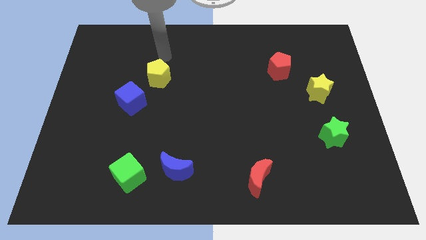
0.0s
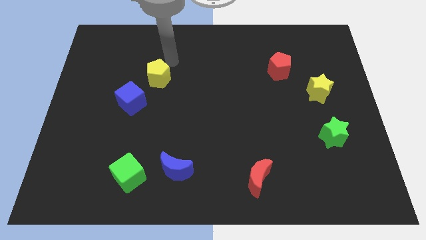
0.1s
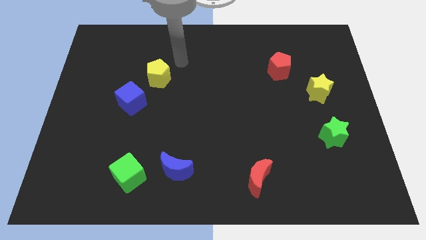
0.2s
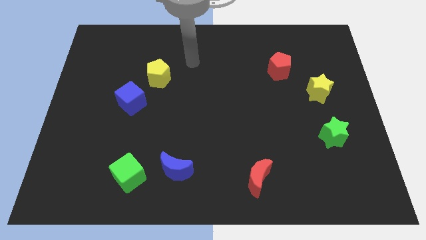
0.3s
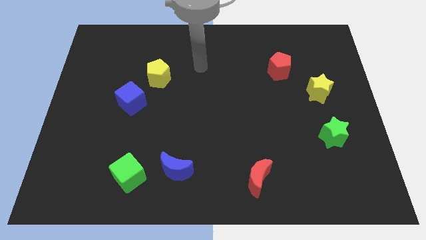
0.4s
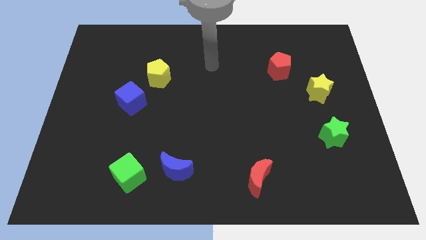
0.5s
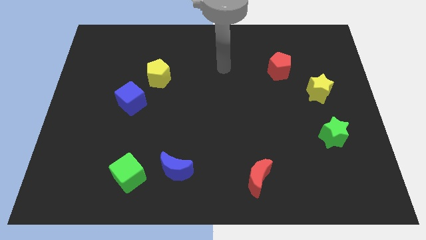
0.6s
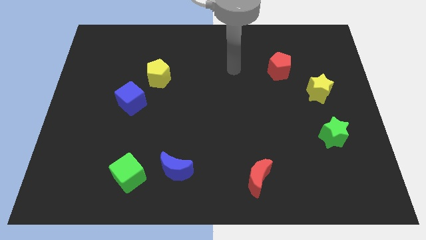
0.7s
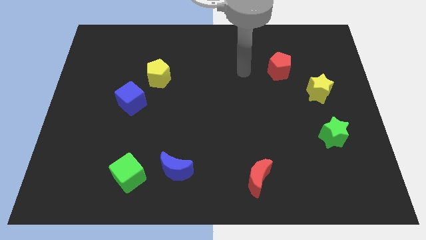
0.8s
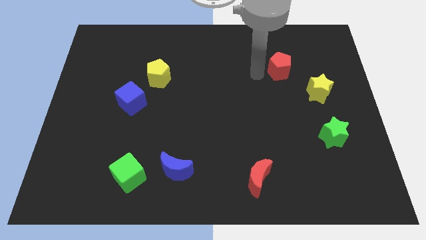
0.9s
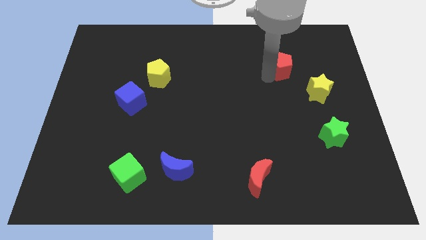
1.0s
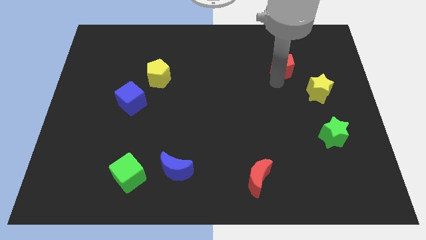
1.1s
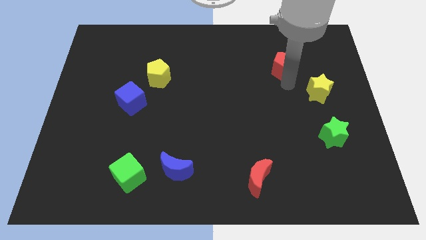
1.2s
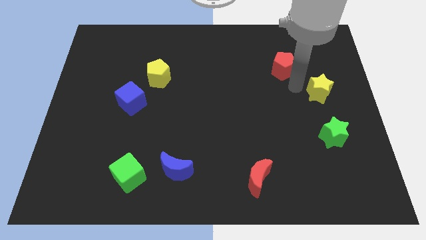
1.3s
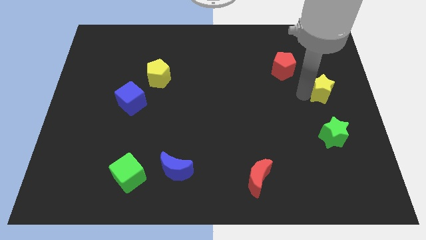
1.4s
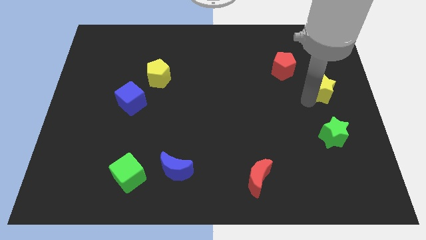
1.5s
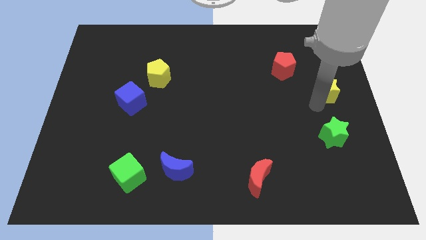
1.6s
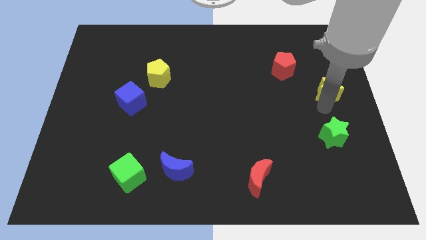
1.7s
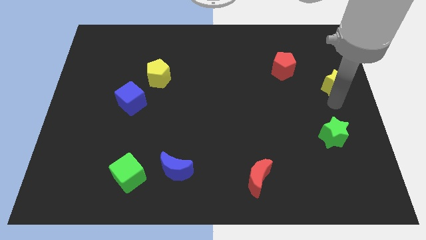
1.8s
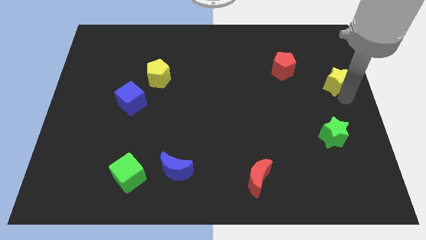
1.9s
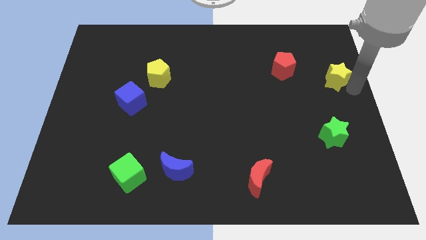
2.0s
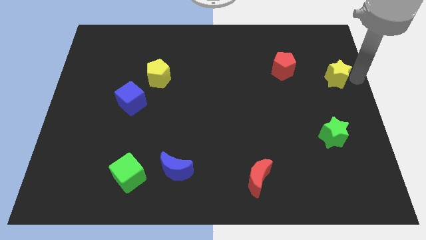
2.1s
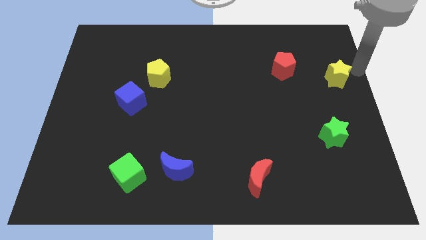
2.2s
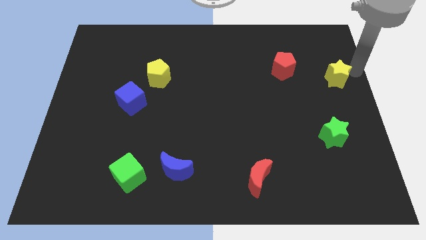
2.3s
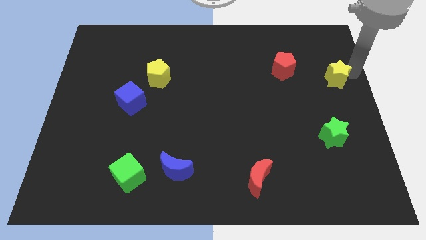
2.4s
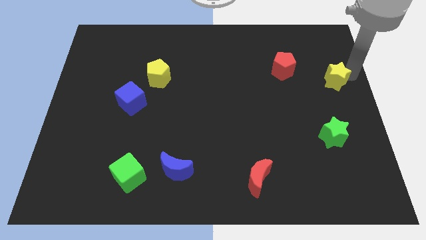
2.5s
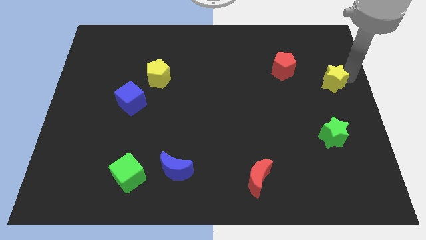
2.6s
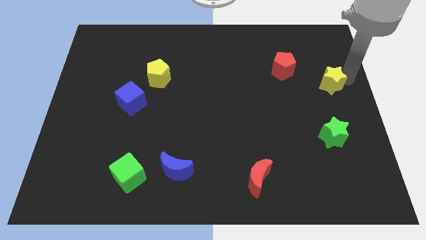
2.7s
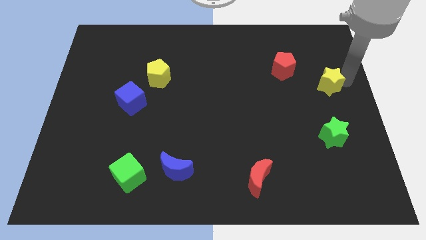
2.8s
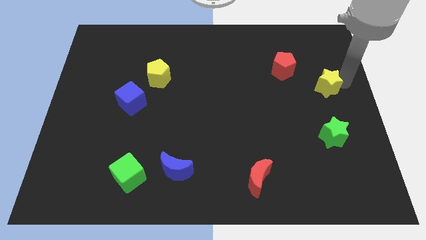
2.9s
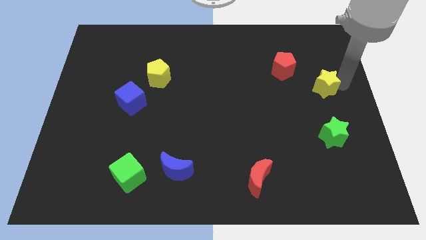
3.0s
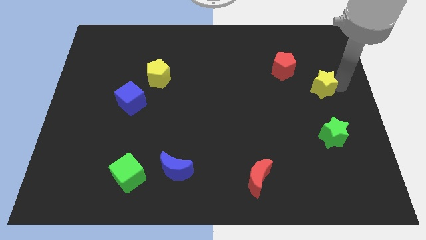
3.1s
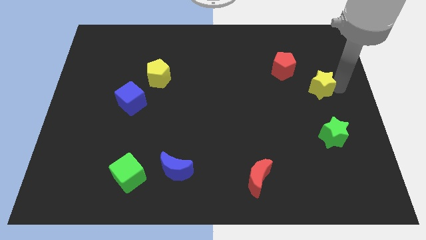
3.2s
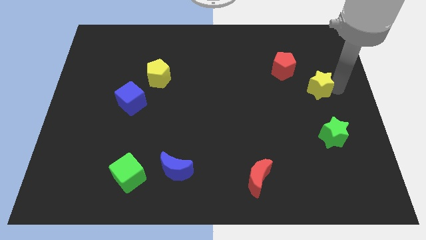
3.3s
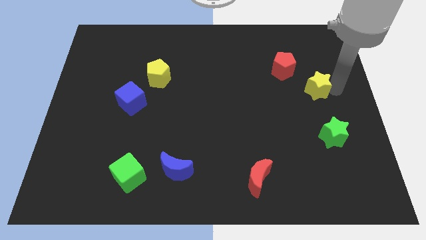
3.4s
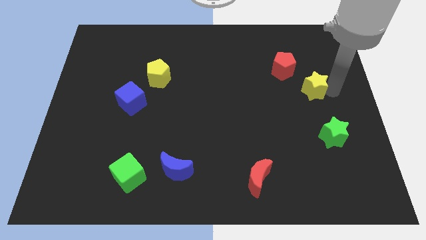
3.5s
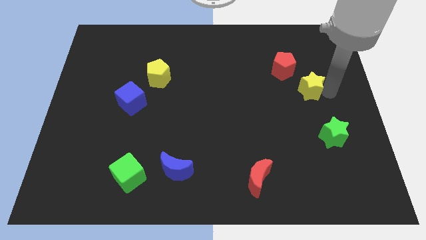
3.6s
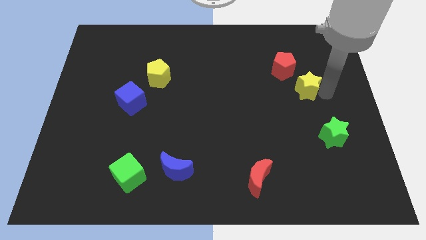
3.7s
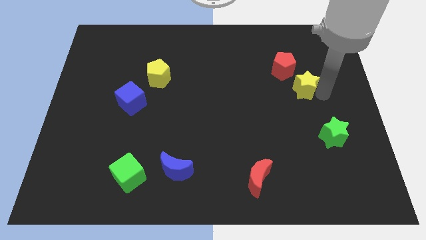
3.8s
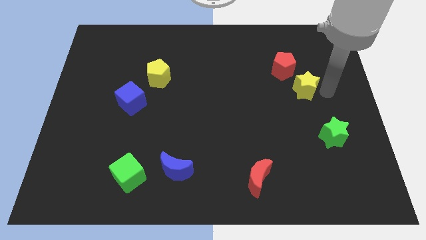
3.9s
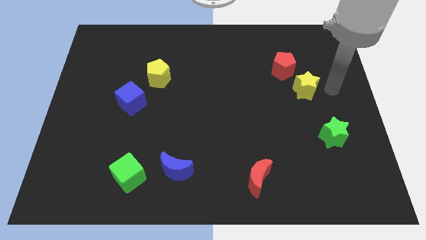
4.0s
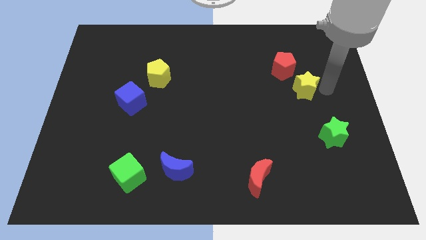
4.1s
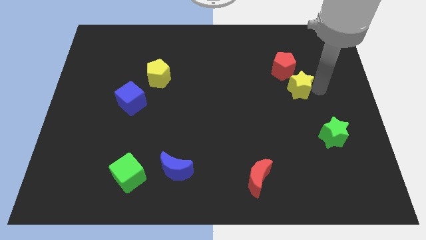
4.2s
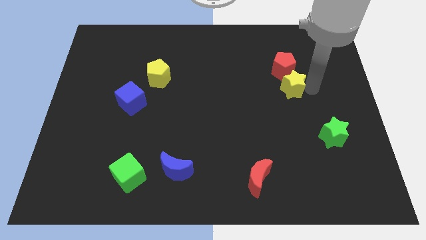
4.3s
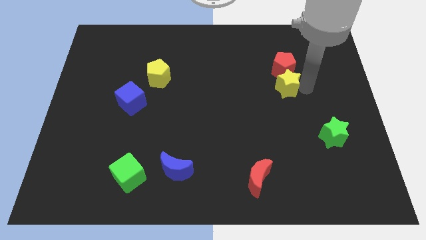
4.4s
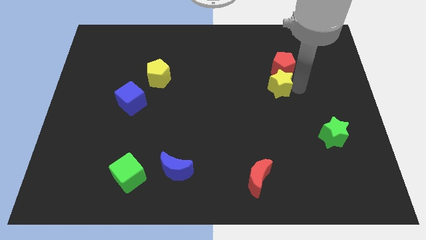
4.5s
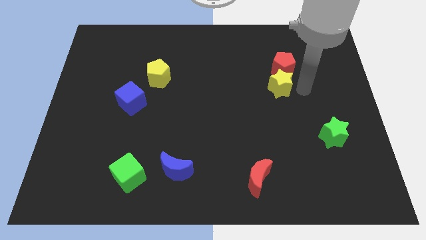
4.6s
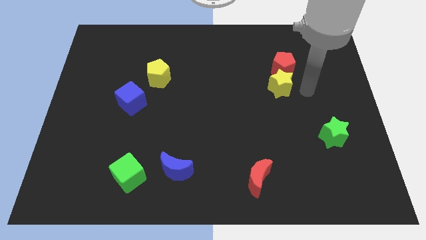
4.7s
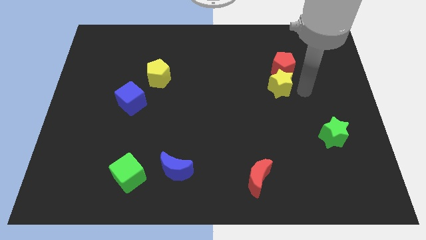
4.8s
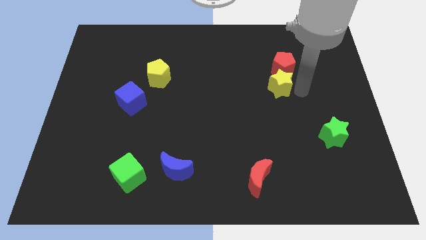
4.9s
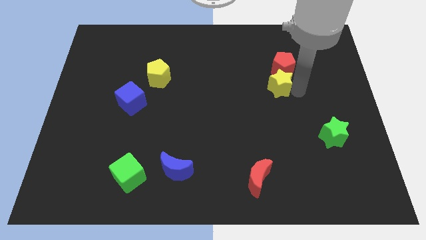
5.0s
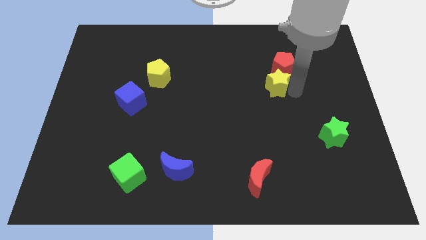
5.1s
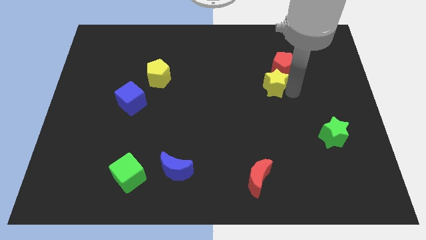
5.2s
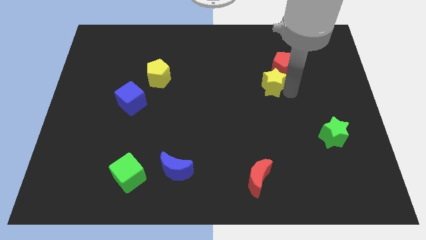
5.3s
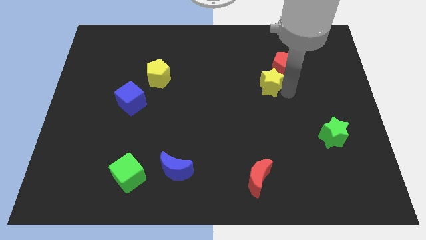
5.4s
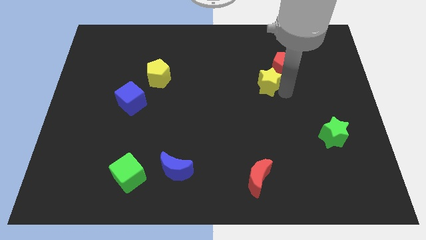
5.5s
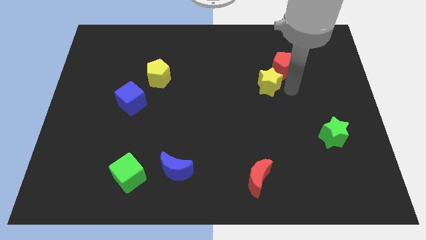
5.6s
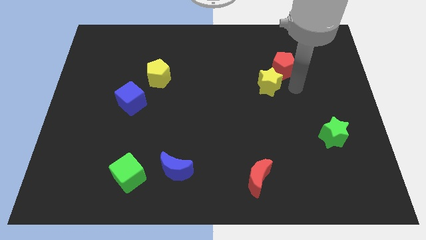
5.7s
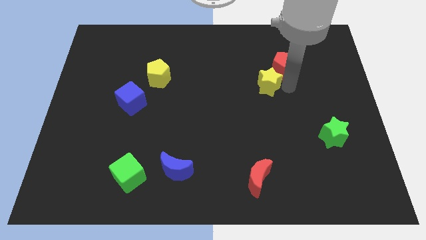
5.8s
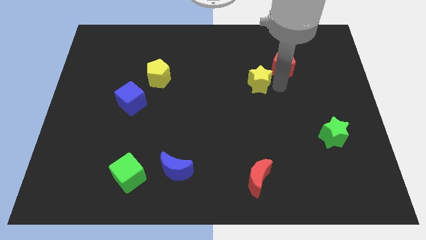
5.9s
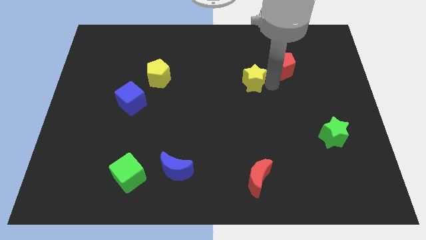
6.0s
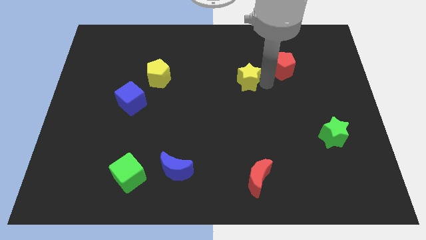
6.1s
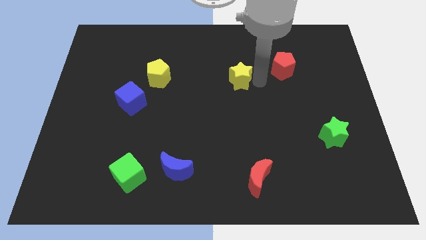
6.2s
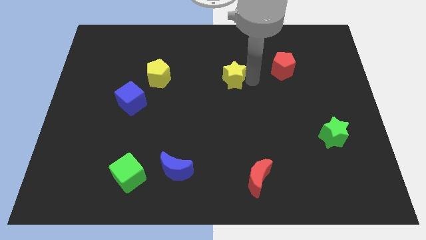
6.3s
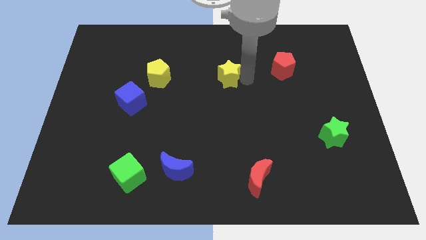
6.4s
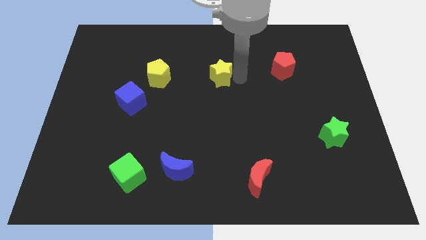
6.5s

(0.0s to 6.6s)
move the yellow star to the right of the yellow pentagon

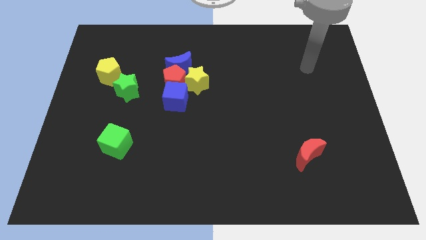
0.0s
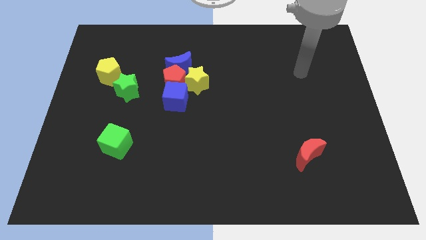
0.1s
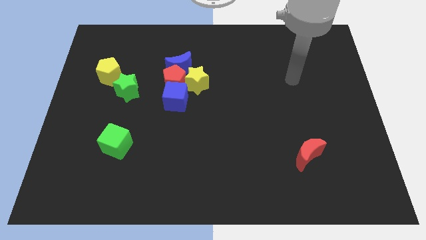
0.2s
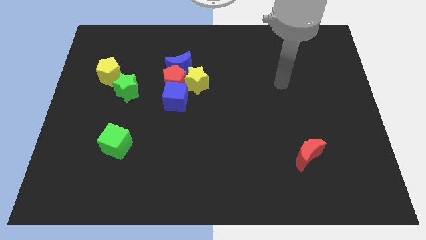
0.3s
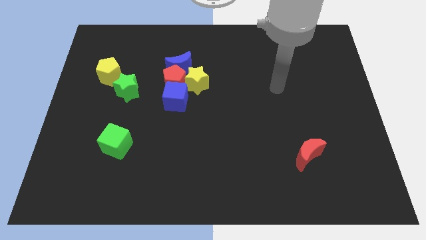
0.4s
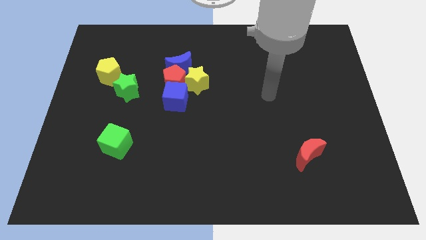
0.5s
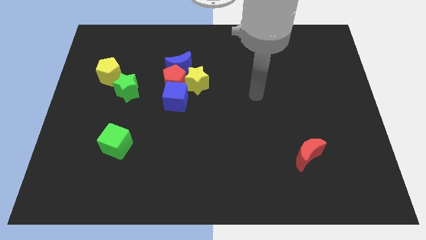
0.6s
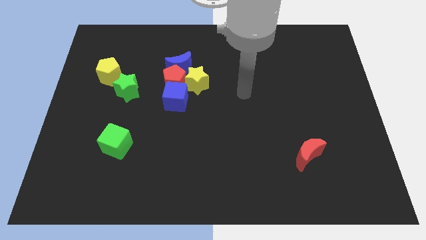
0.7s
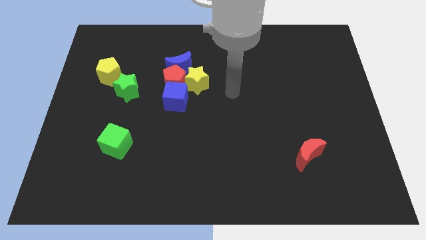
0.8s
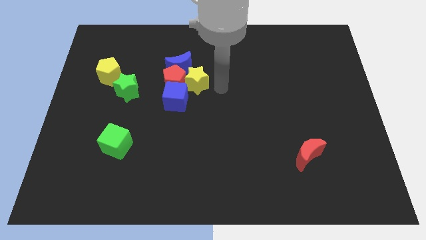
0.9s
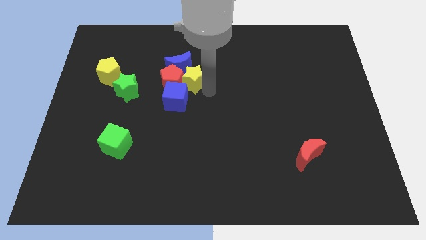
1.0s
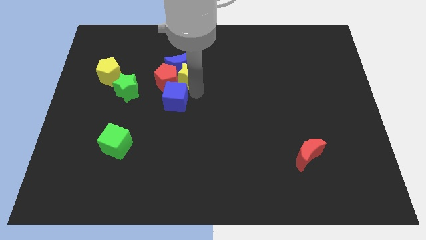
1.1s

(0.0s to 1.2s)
slide the red pentagon diagonally up and to the right of the green star
